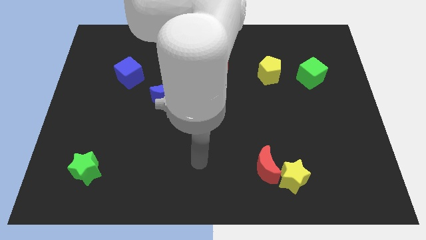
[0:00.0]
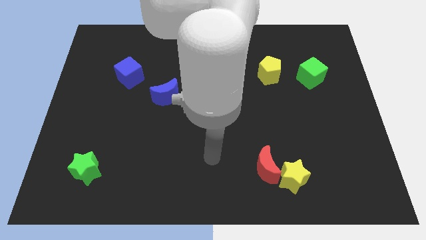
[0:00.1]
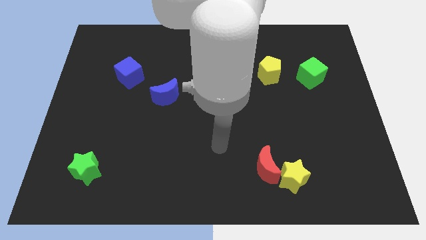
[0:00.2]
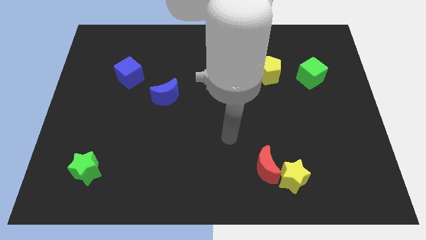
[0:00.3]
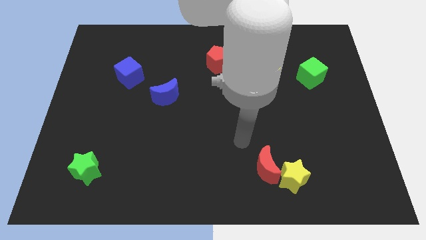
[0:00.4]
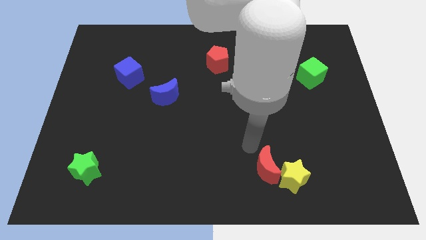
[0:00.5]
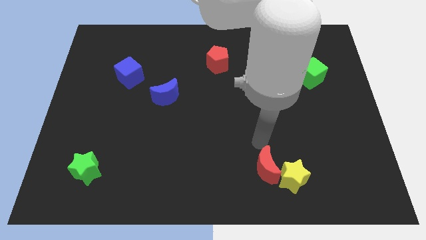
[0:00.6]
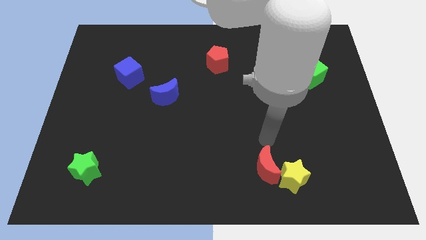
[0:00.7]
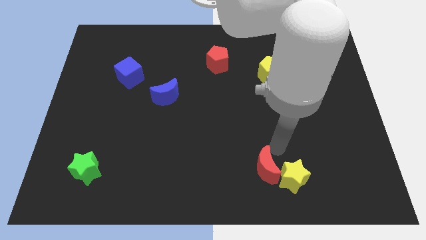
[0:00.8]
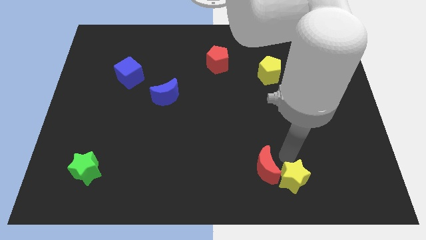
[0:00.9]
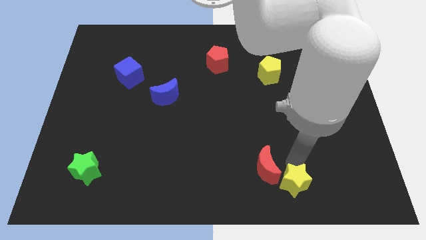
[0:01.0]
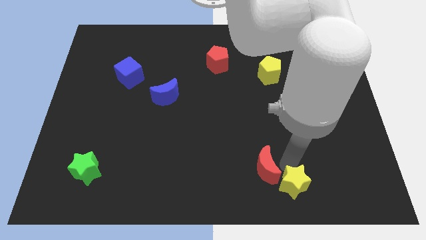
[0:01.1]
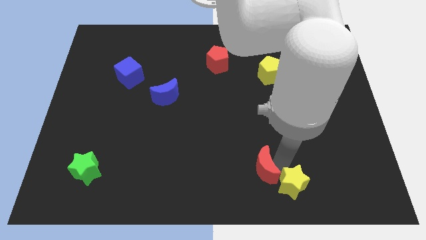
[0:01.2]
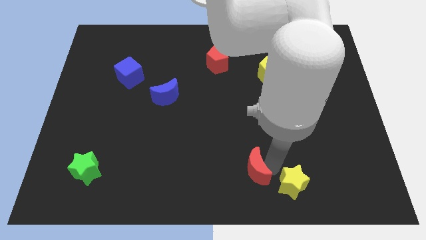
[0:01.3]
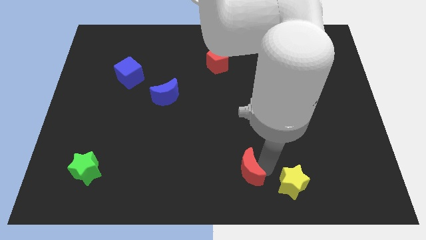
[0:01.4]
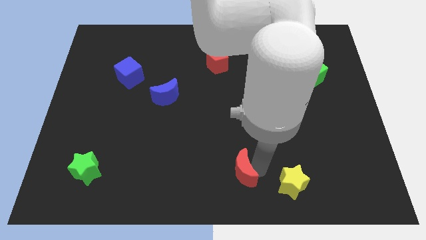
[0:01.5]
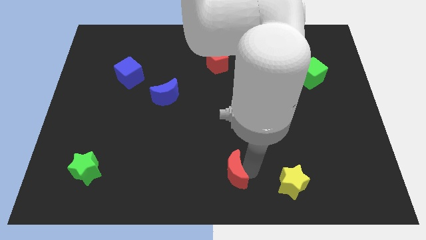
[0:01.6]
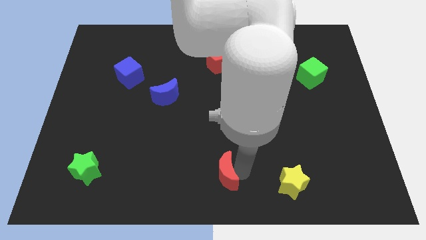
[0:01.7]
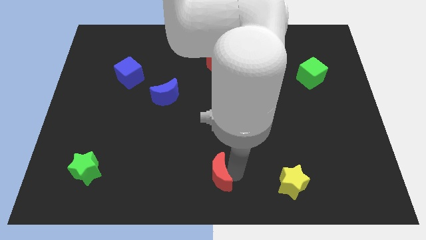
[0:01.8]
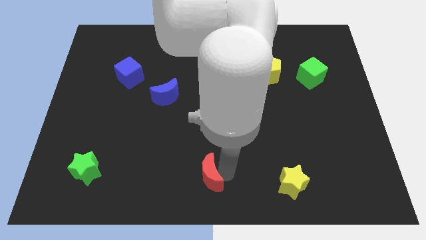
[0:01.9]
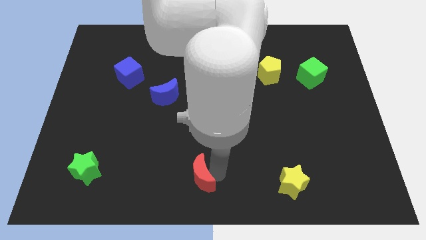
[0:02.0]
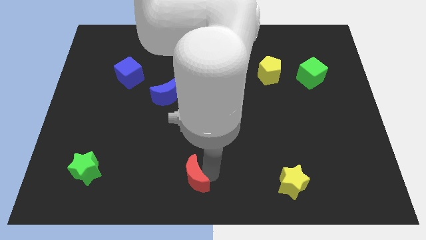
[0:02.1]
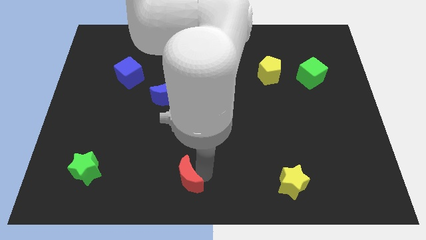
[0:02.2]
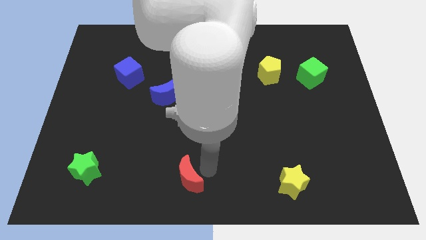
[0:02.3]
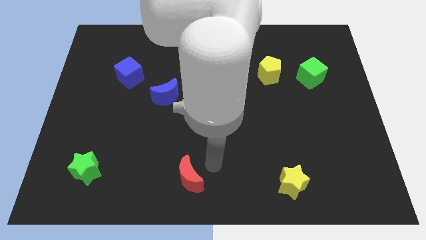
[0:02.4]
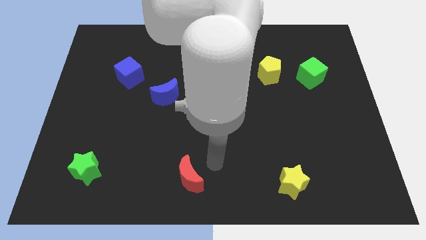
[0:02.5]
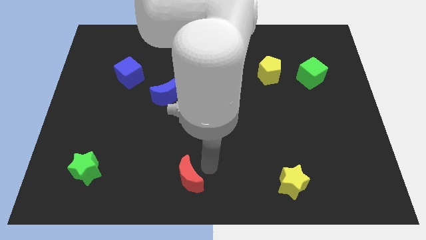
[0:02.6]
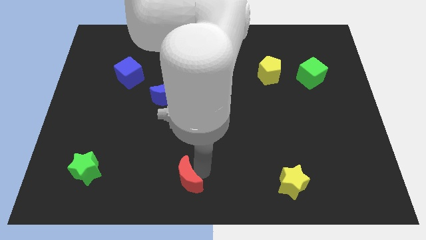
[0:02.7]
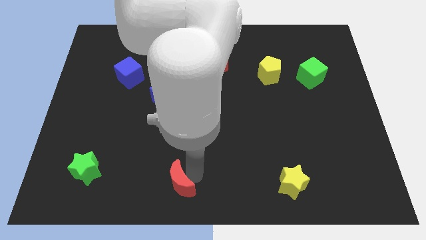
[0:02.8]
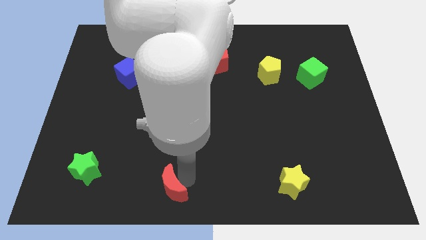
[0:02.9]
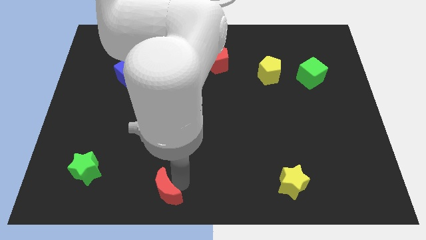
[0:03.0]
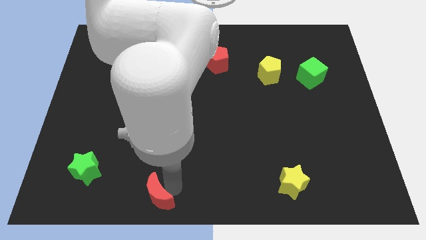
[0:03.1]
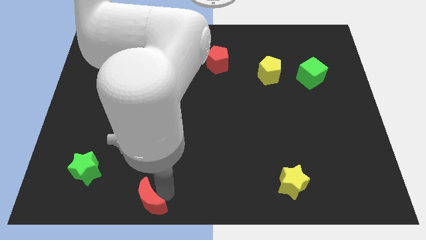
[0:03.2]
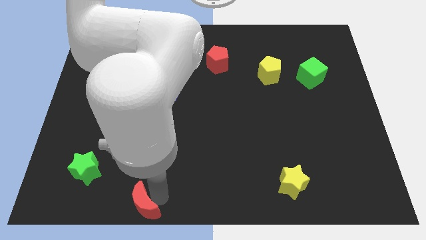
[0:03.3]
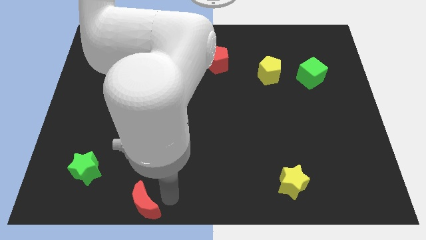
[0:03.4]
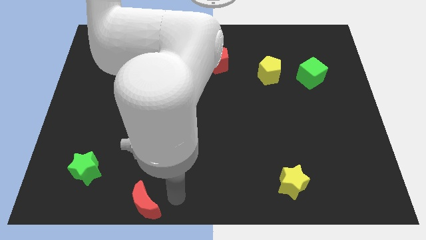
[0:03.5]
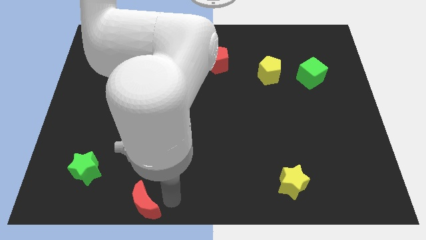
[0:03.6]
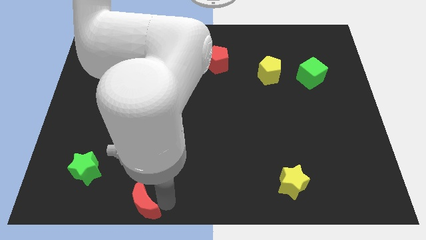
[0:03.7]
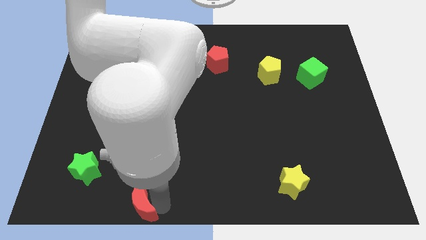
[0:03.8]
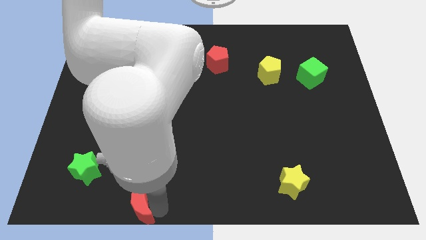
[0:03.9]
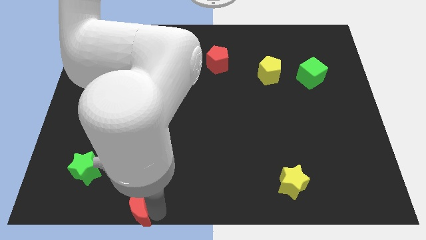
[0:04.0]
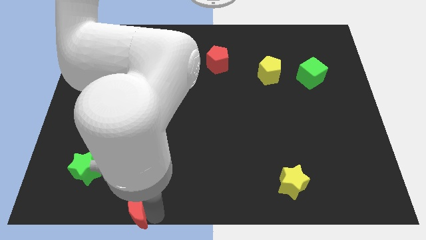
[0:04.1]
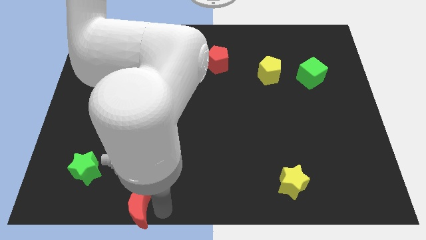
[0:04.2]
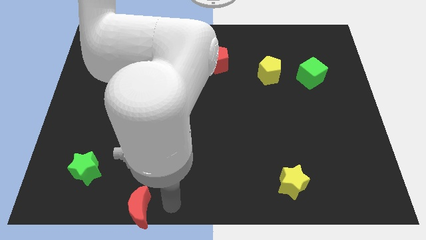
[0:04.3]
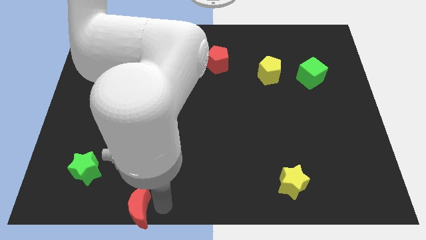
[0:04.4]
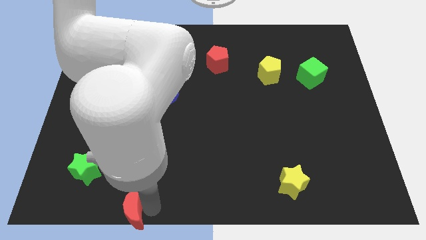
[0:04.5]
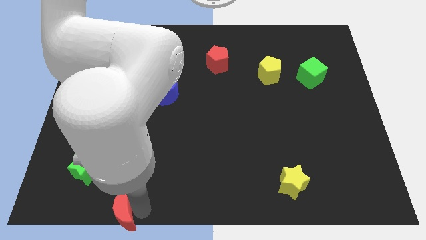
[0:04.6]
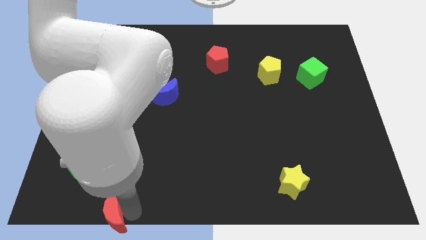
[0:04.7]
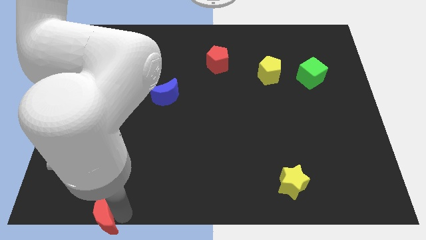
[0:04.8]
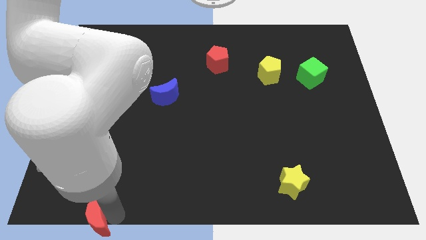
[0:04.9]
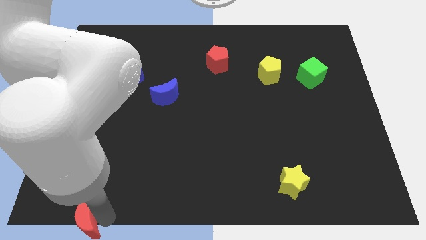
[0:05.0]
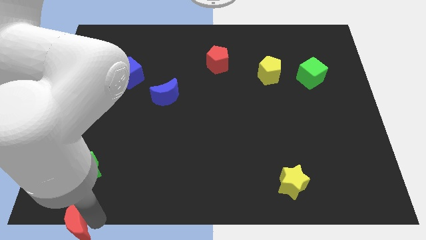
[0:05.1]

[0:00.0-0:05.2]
push the red moon to the bottom left of the board

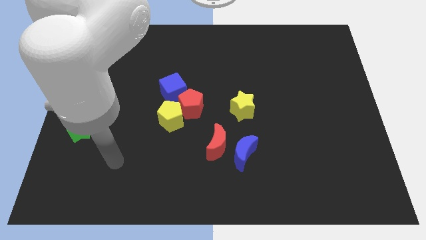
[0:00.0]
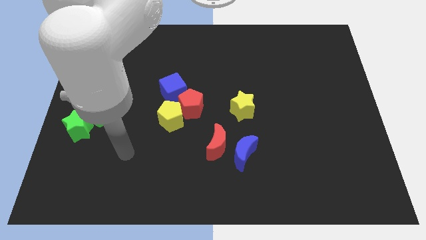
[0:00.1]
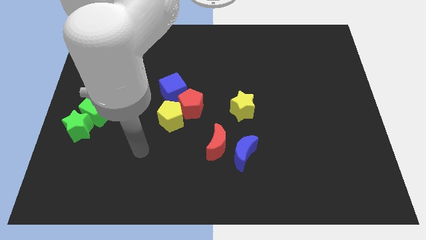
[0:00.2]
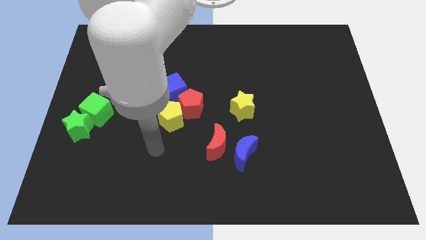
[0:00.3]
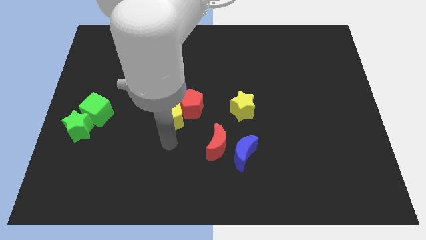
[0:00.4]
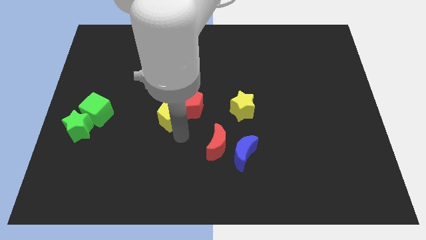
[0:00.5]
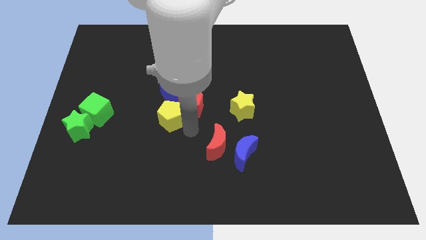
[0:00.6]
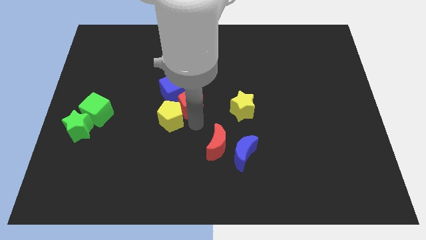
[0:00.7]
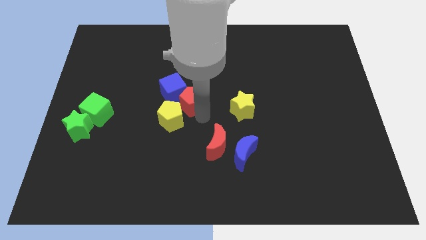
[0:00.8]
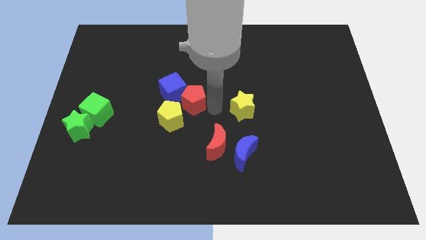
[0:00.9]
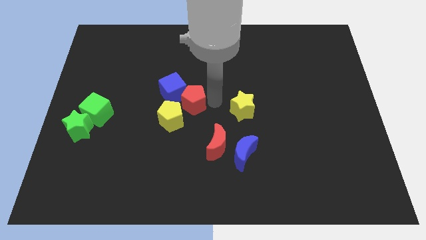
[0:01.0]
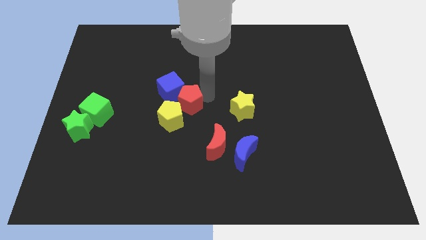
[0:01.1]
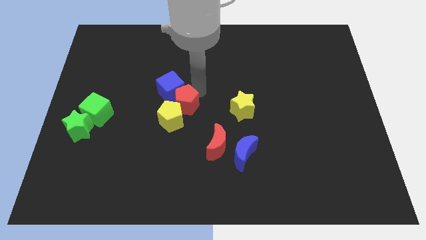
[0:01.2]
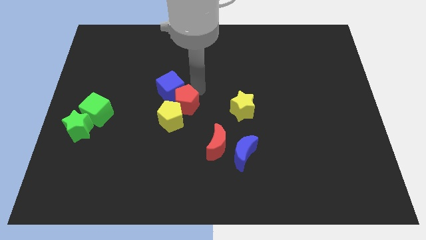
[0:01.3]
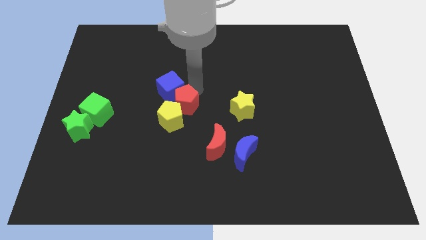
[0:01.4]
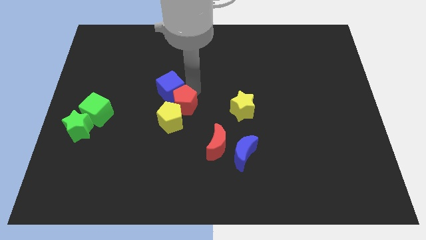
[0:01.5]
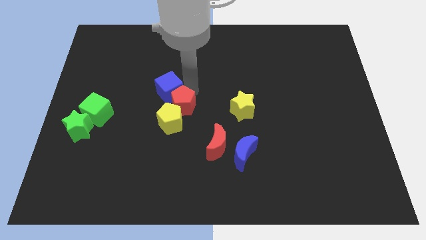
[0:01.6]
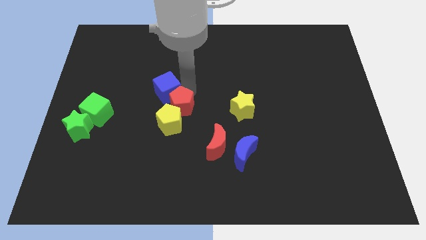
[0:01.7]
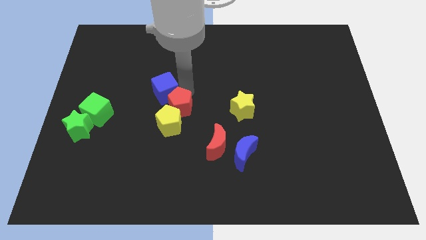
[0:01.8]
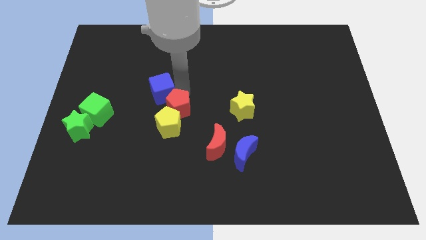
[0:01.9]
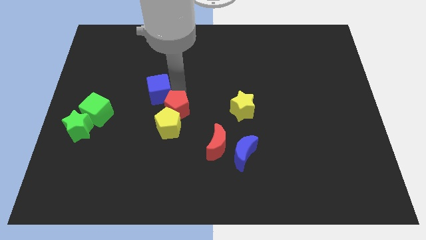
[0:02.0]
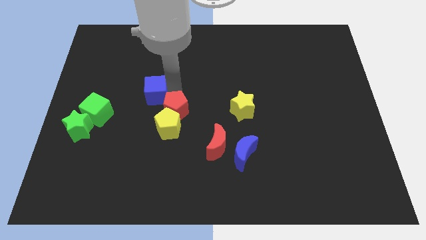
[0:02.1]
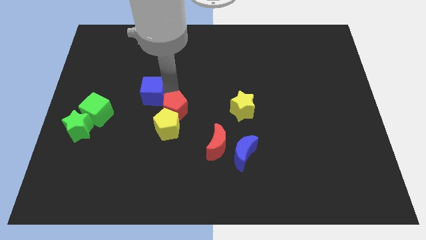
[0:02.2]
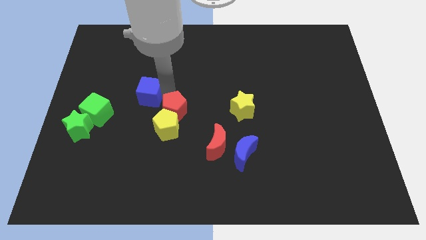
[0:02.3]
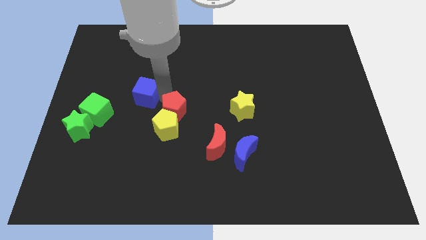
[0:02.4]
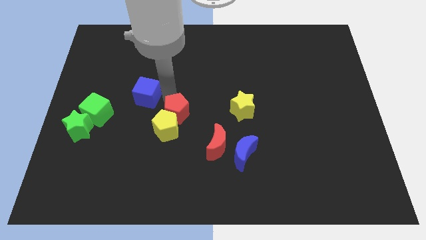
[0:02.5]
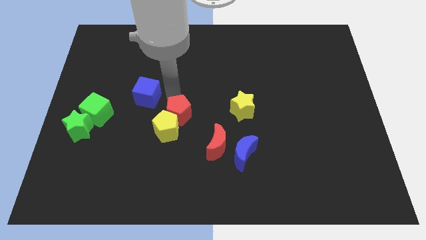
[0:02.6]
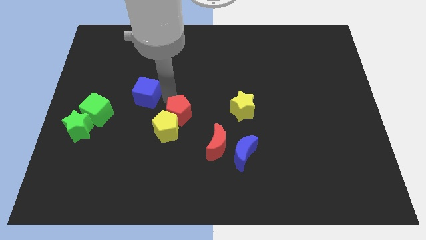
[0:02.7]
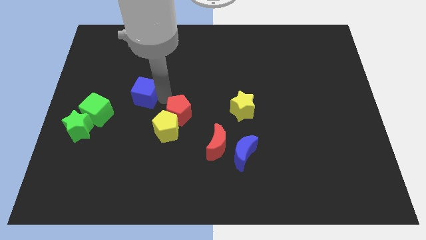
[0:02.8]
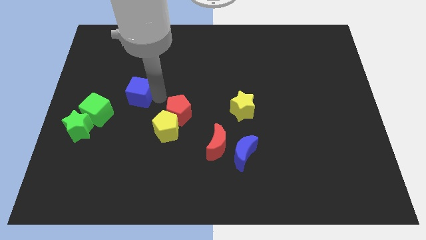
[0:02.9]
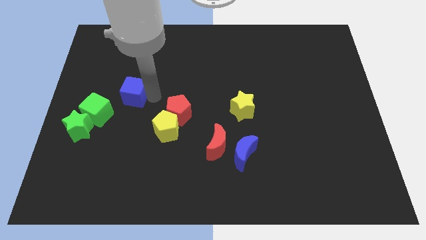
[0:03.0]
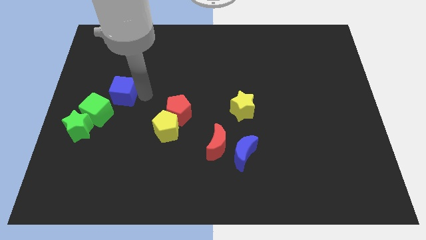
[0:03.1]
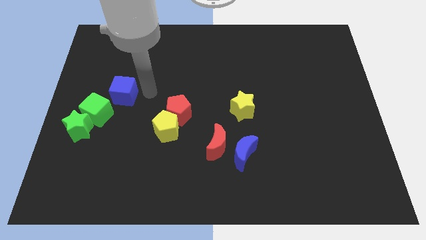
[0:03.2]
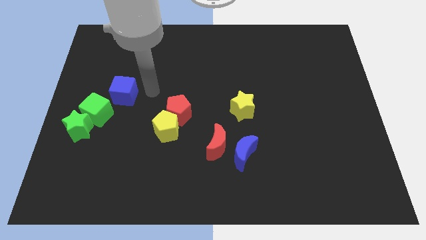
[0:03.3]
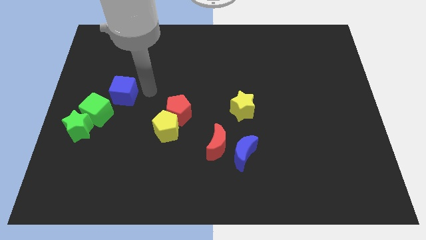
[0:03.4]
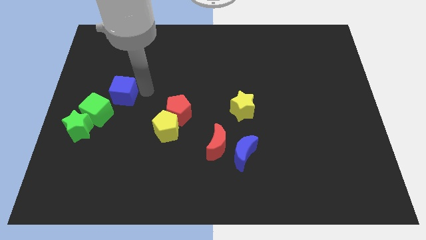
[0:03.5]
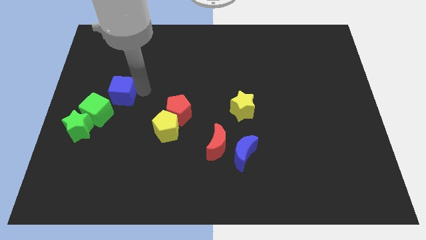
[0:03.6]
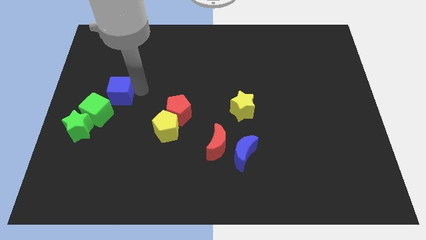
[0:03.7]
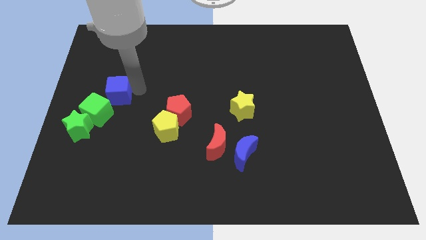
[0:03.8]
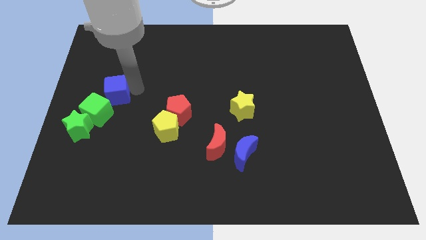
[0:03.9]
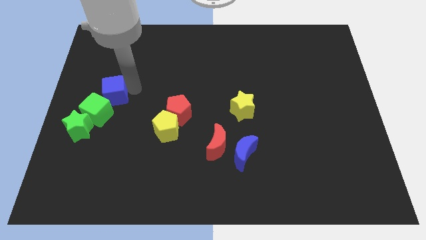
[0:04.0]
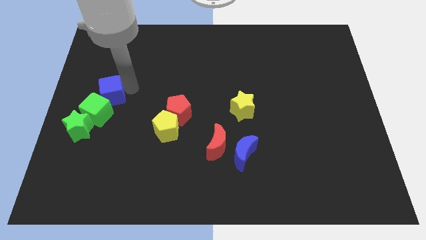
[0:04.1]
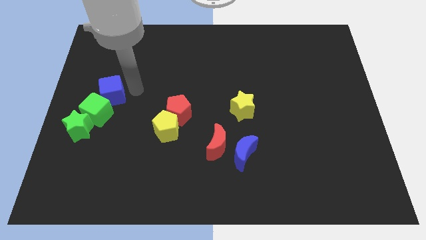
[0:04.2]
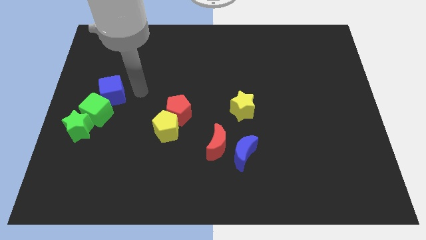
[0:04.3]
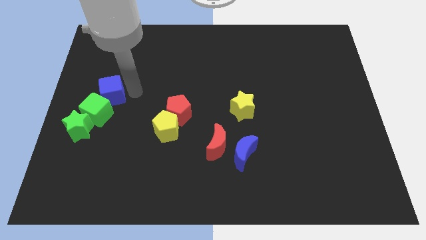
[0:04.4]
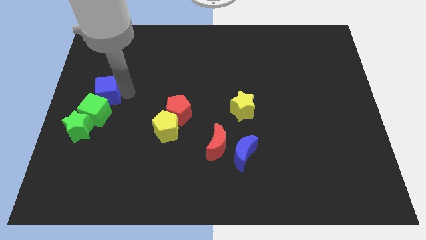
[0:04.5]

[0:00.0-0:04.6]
put the blue cube to the left side of the board
